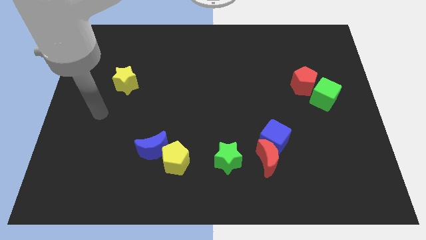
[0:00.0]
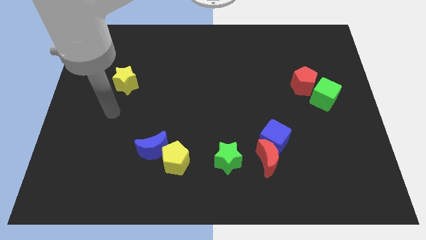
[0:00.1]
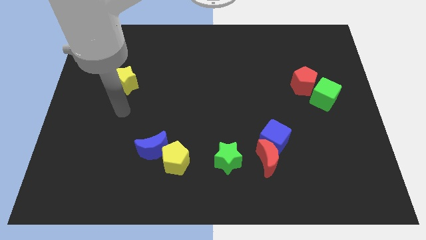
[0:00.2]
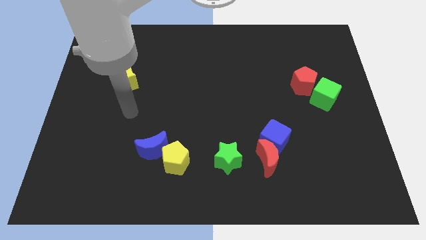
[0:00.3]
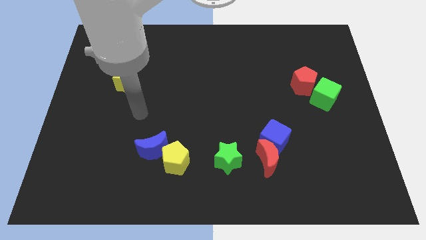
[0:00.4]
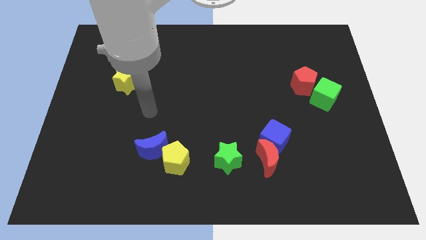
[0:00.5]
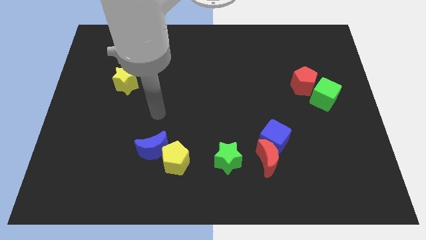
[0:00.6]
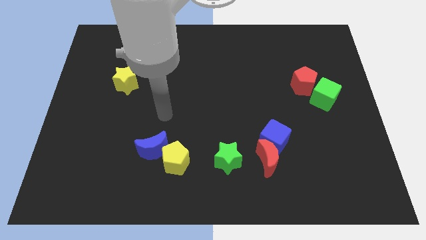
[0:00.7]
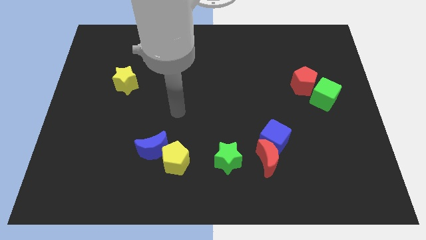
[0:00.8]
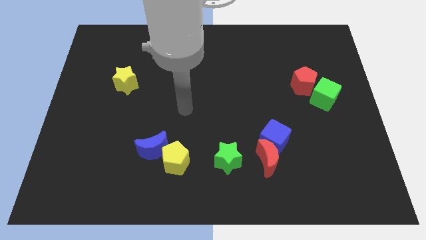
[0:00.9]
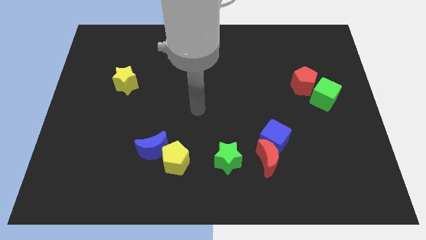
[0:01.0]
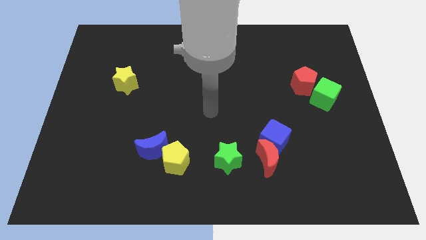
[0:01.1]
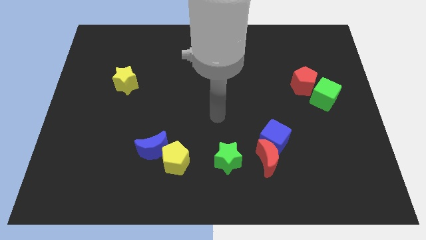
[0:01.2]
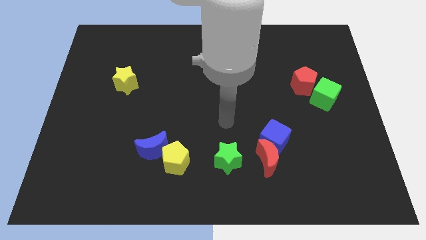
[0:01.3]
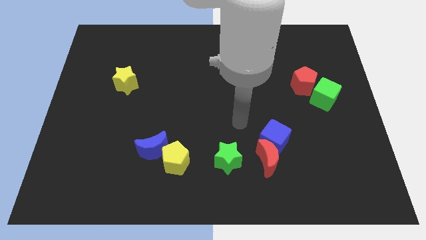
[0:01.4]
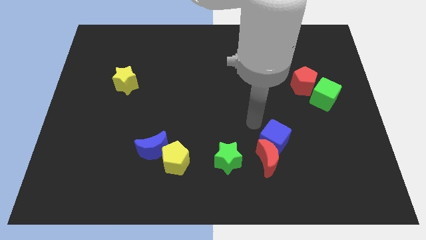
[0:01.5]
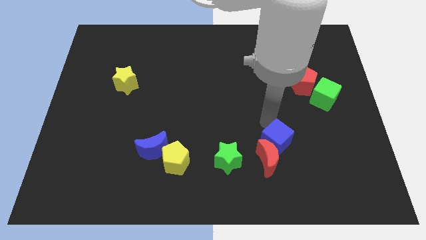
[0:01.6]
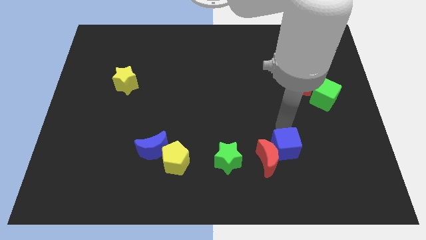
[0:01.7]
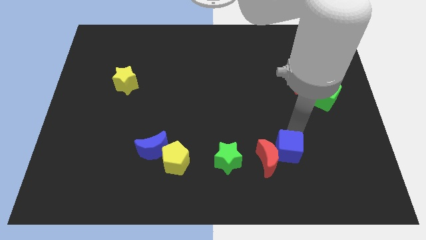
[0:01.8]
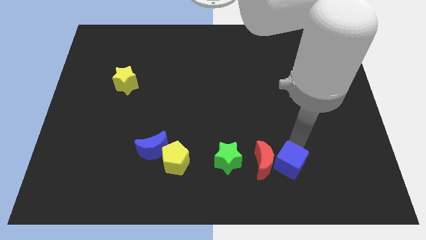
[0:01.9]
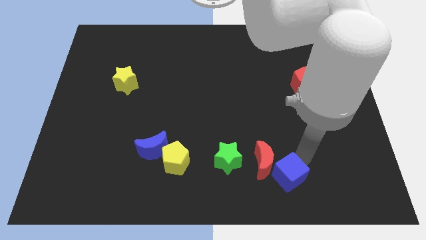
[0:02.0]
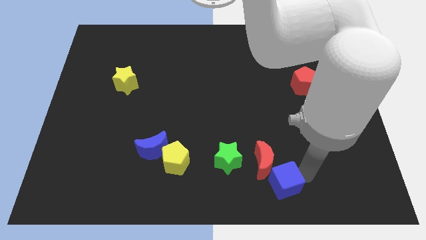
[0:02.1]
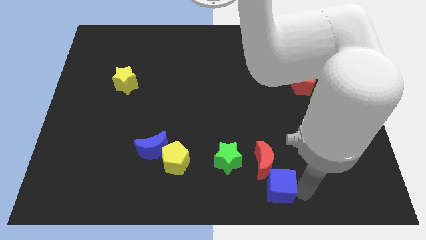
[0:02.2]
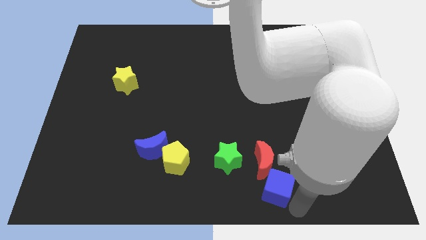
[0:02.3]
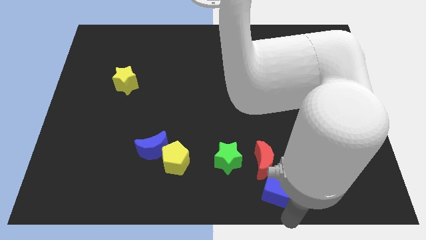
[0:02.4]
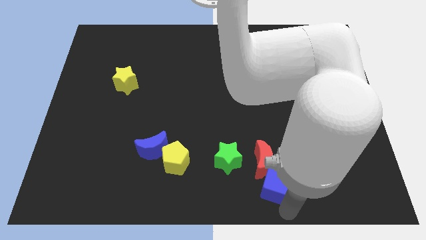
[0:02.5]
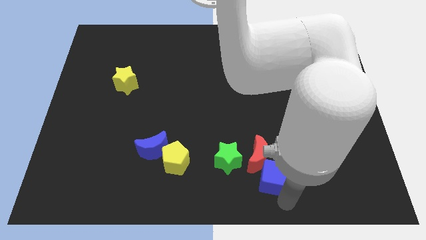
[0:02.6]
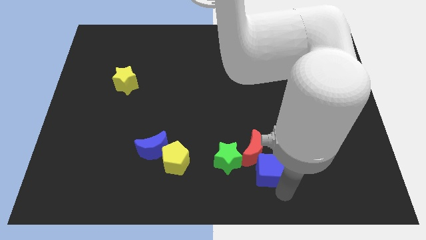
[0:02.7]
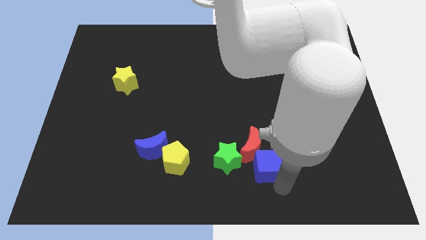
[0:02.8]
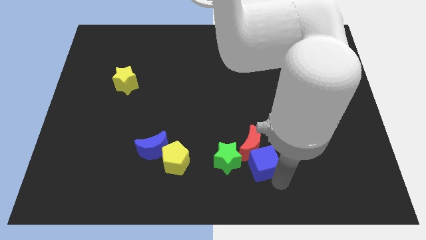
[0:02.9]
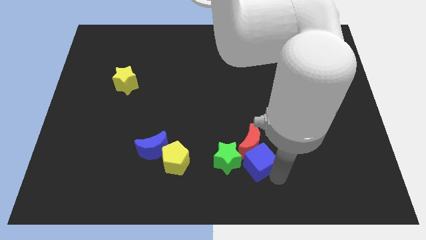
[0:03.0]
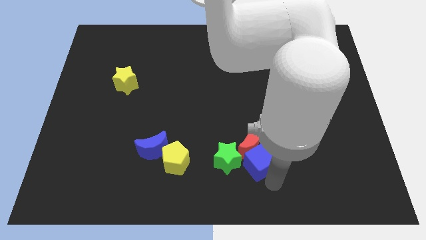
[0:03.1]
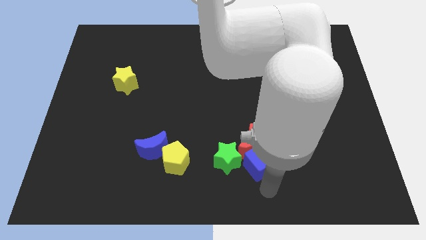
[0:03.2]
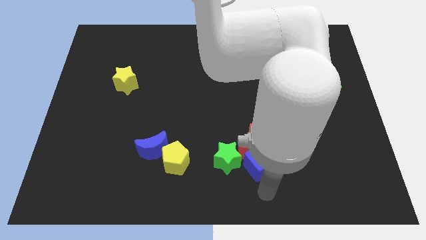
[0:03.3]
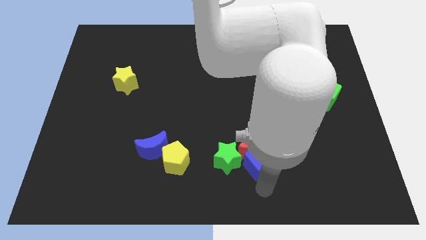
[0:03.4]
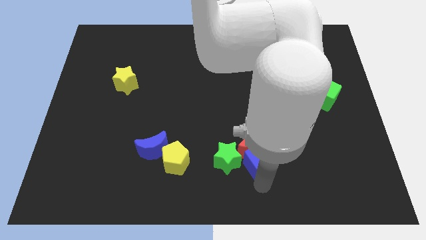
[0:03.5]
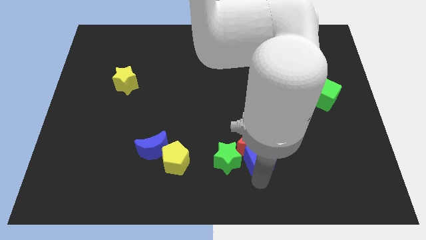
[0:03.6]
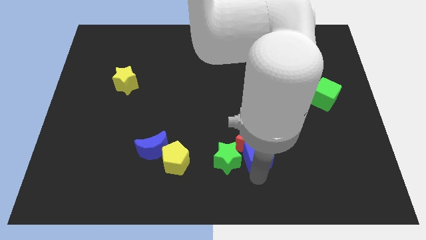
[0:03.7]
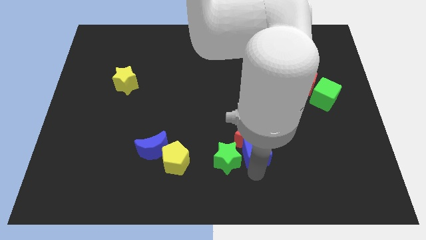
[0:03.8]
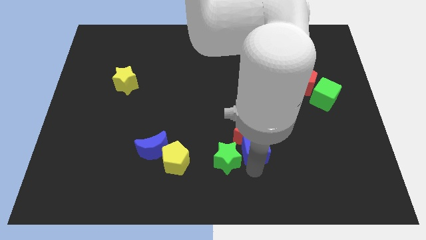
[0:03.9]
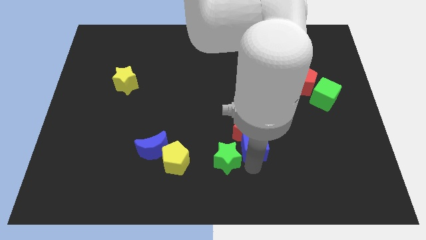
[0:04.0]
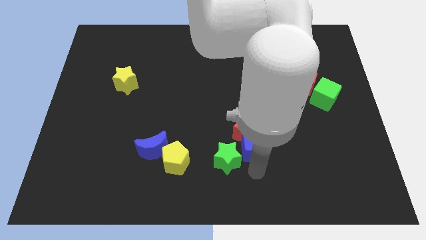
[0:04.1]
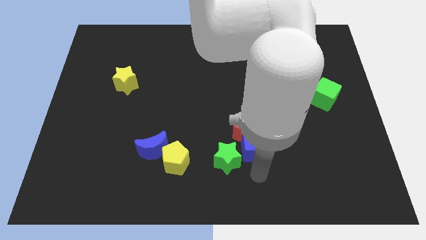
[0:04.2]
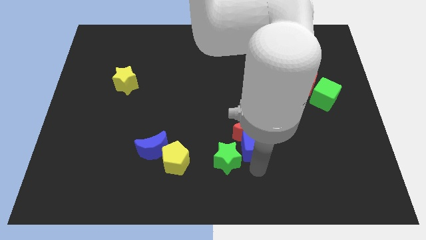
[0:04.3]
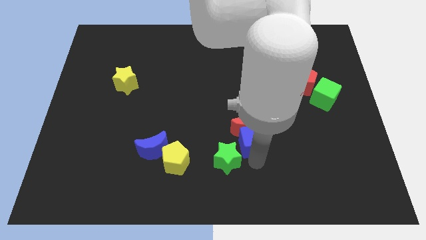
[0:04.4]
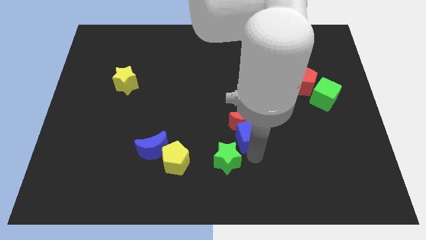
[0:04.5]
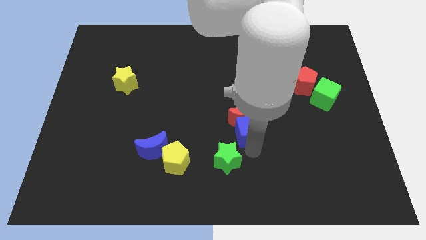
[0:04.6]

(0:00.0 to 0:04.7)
move the blue cube to the center

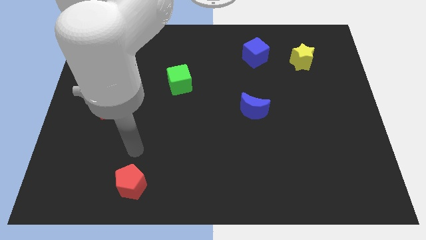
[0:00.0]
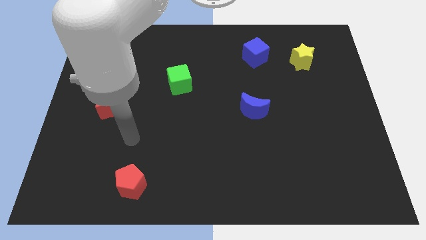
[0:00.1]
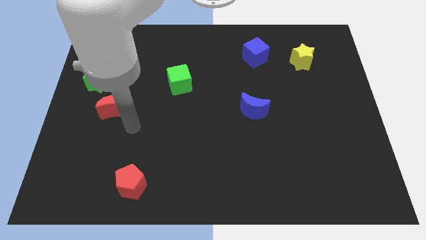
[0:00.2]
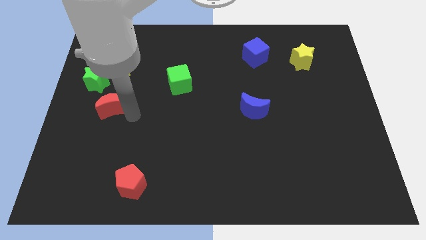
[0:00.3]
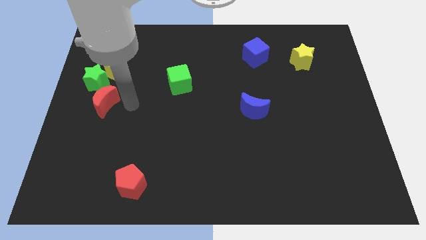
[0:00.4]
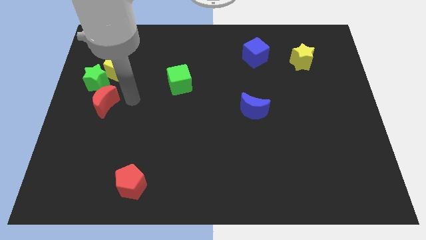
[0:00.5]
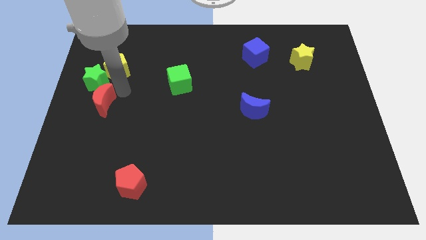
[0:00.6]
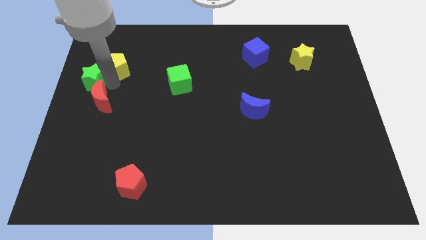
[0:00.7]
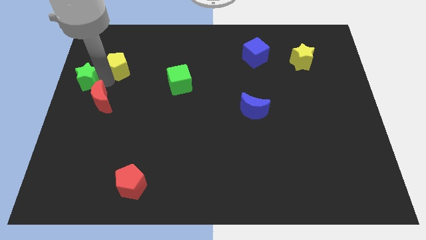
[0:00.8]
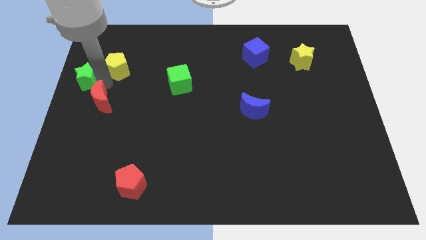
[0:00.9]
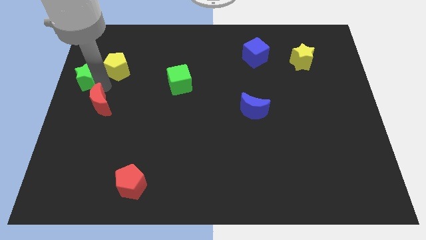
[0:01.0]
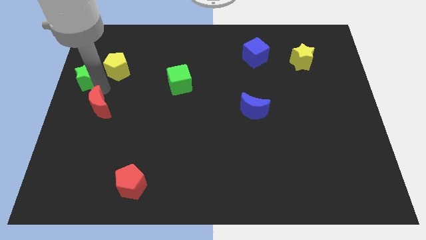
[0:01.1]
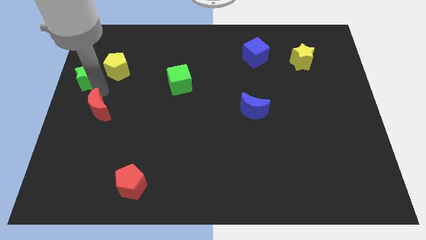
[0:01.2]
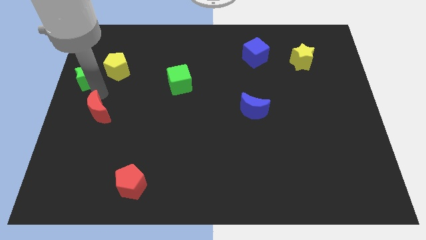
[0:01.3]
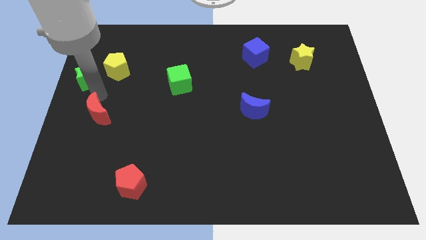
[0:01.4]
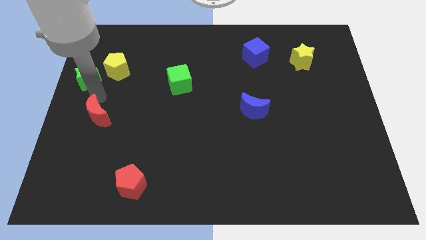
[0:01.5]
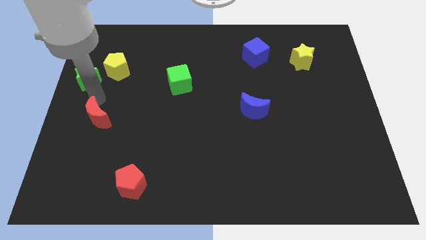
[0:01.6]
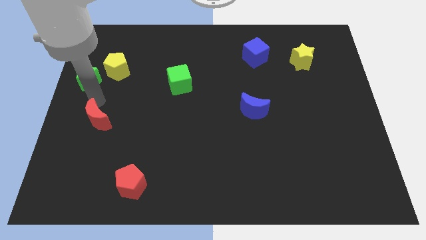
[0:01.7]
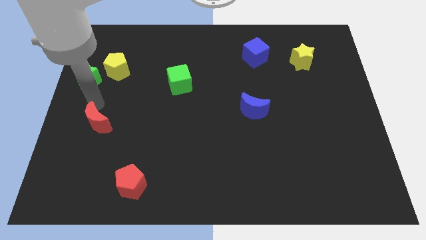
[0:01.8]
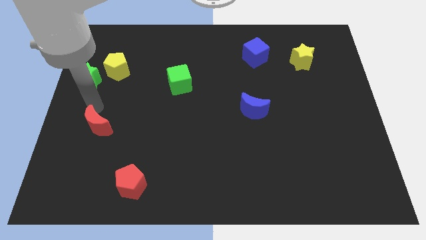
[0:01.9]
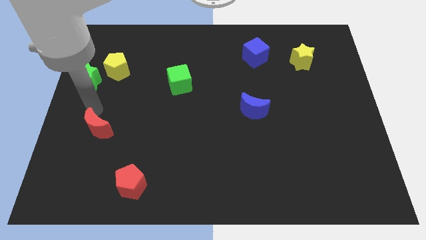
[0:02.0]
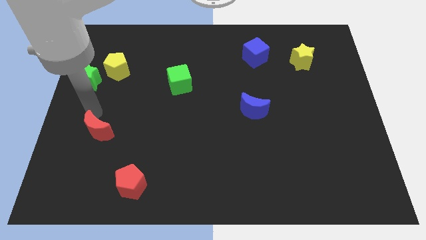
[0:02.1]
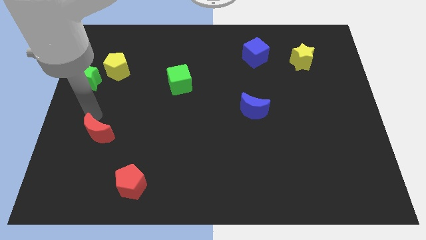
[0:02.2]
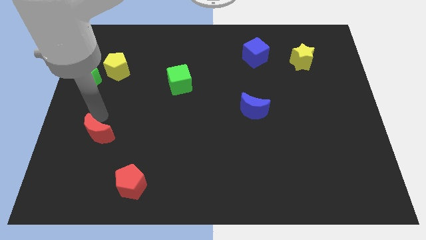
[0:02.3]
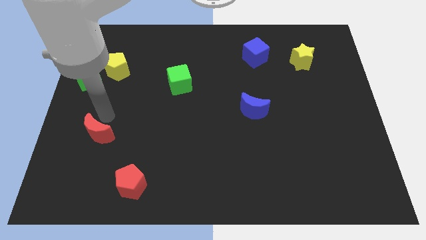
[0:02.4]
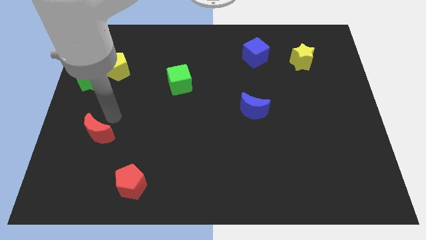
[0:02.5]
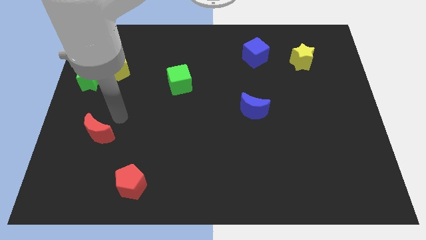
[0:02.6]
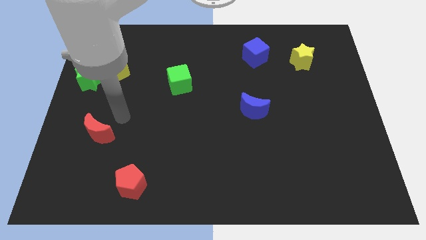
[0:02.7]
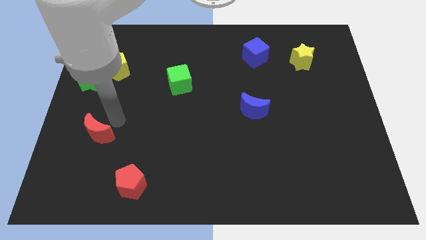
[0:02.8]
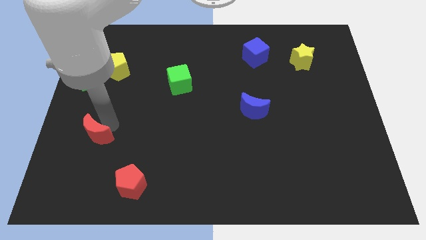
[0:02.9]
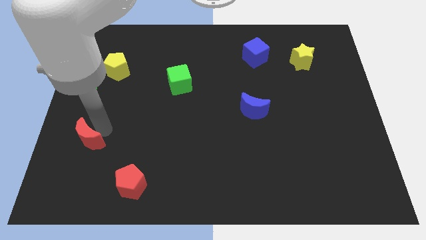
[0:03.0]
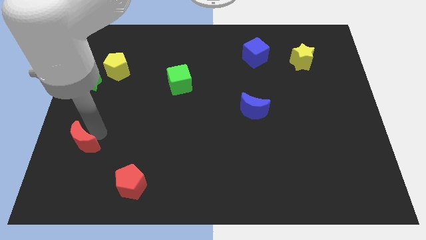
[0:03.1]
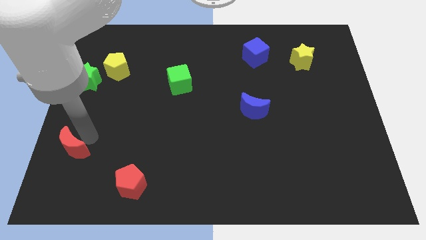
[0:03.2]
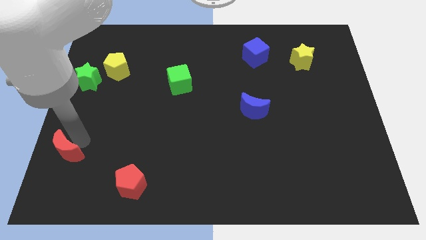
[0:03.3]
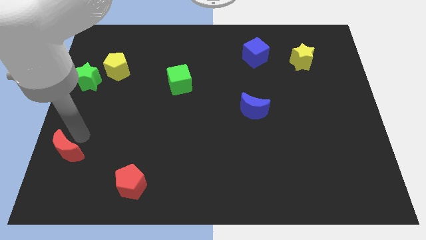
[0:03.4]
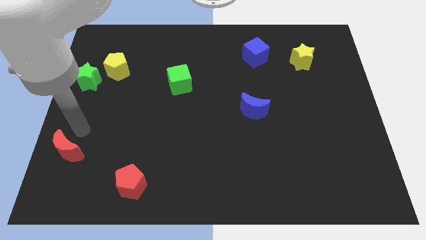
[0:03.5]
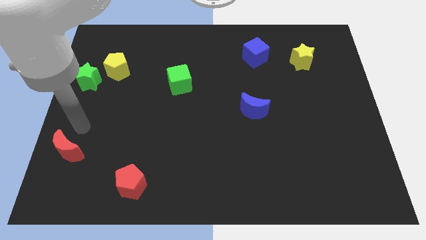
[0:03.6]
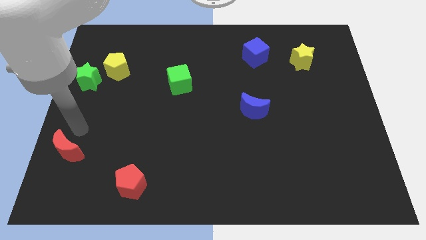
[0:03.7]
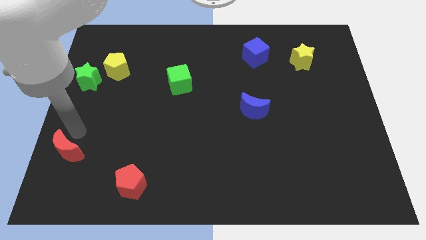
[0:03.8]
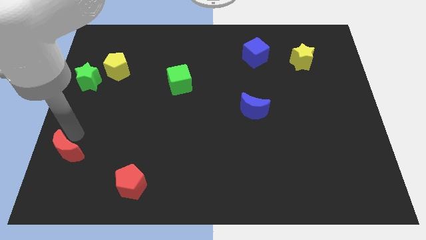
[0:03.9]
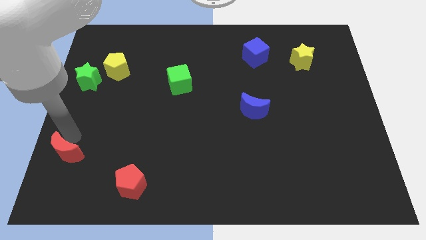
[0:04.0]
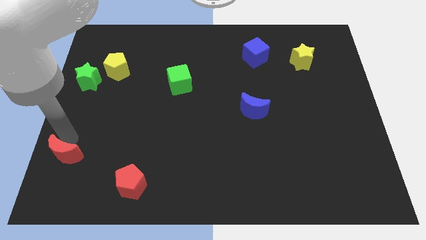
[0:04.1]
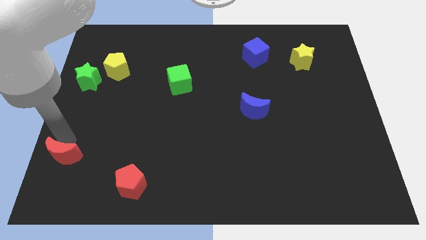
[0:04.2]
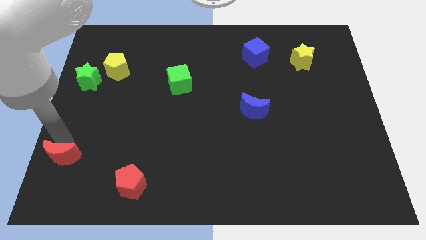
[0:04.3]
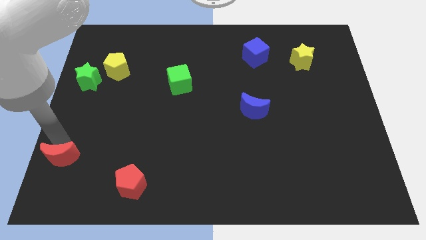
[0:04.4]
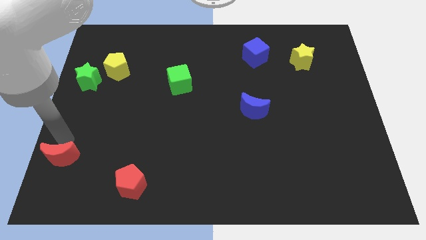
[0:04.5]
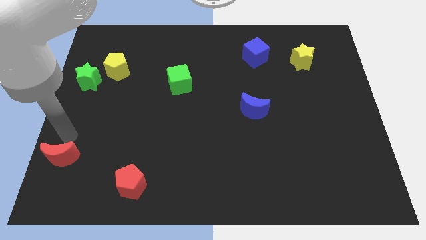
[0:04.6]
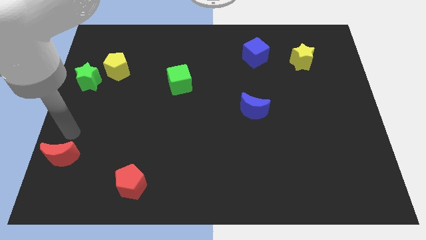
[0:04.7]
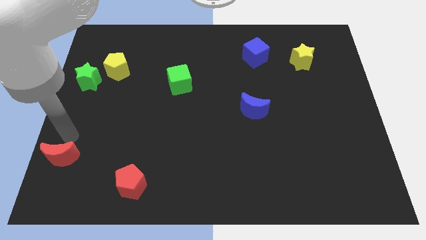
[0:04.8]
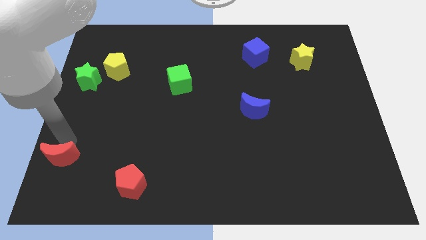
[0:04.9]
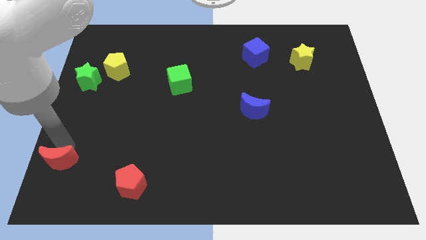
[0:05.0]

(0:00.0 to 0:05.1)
move the red moon to the bottom left
